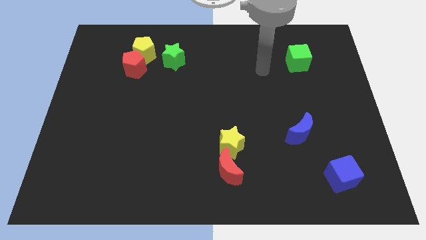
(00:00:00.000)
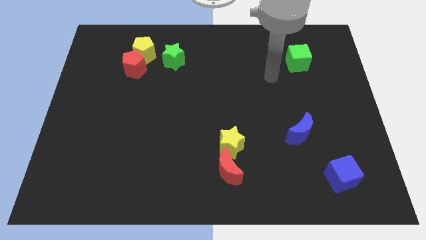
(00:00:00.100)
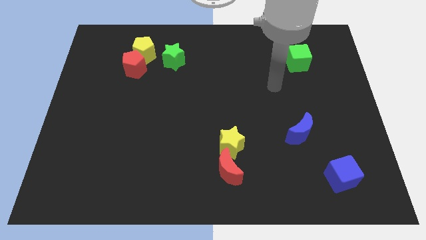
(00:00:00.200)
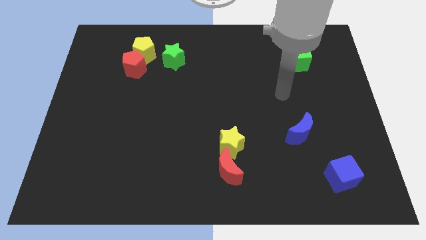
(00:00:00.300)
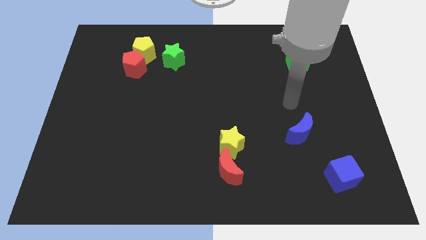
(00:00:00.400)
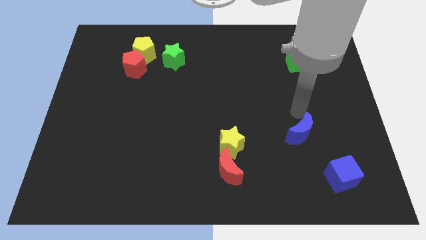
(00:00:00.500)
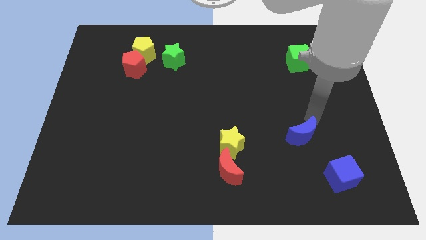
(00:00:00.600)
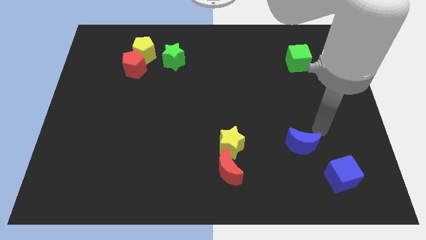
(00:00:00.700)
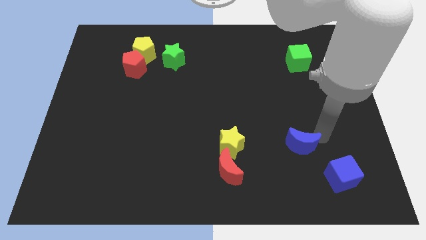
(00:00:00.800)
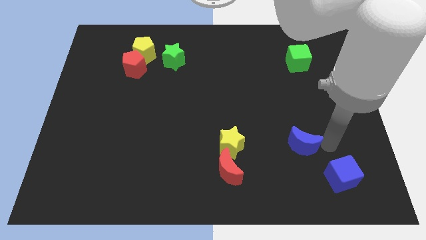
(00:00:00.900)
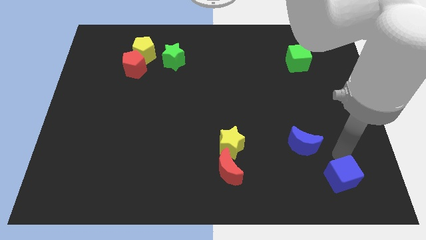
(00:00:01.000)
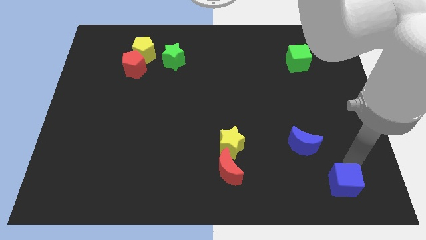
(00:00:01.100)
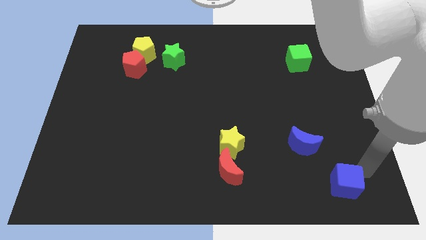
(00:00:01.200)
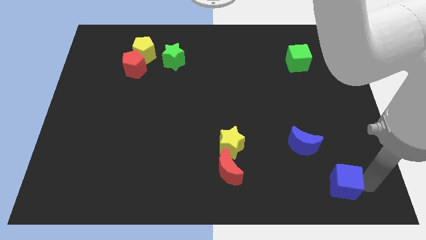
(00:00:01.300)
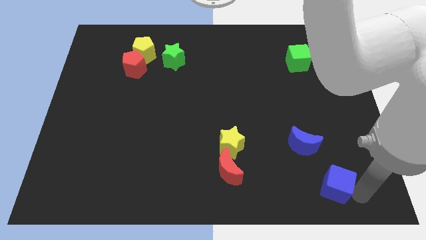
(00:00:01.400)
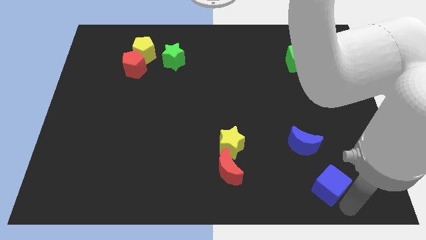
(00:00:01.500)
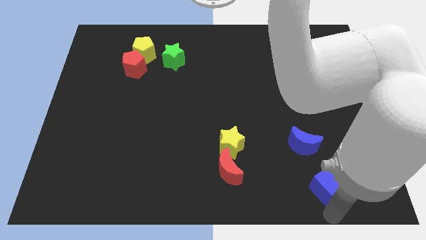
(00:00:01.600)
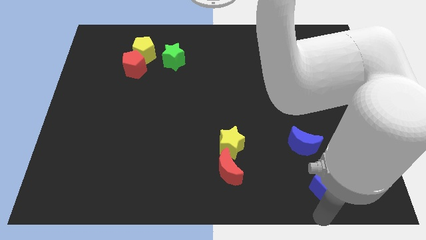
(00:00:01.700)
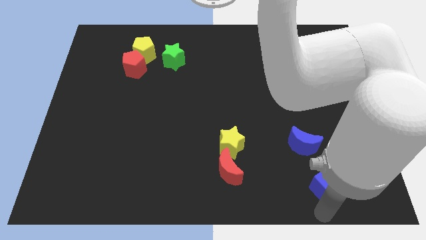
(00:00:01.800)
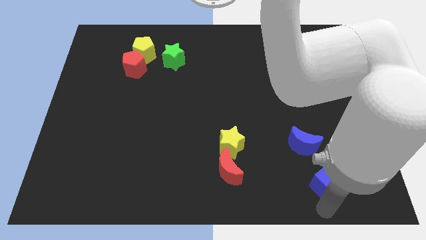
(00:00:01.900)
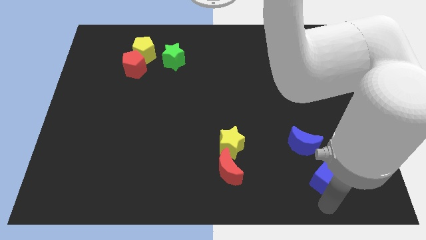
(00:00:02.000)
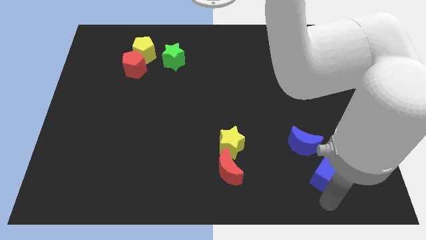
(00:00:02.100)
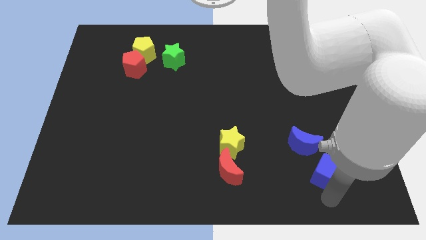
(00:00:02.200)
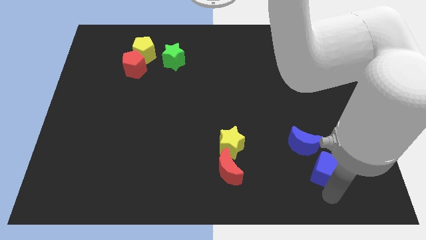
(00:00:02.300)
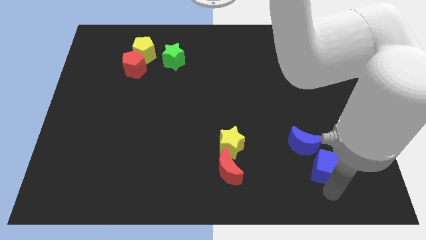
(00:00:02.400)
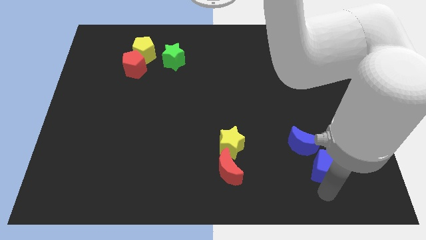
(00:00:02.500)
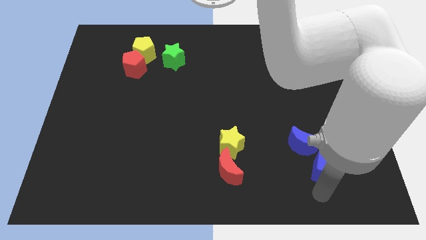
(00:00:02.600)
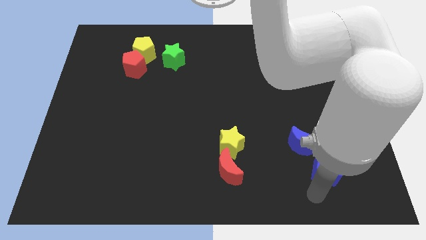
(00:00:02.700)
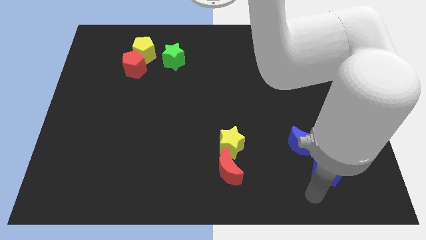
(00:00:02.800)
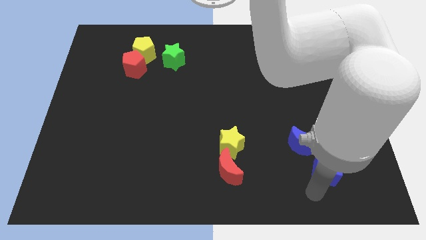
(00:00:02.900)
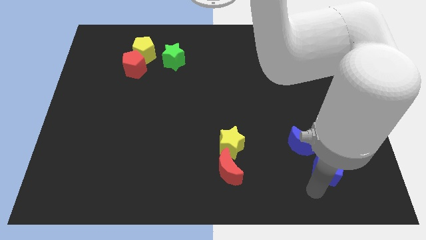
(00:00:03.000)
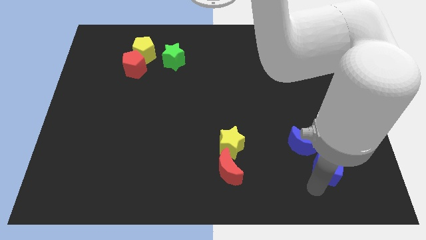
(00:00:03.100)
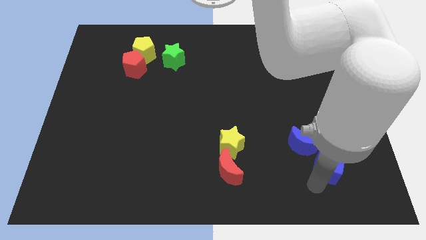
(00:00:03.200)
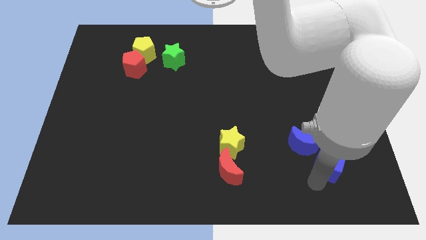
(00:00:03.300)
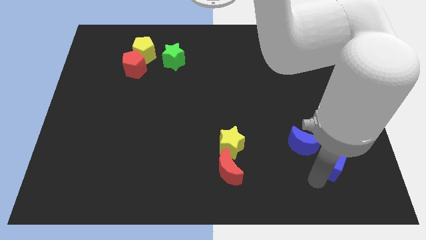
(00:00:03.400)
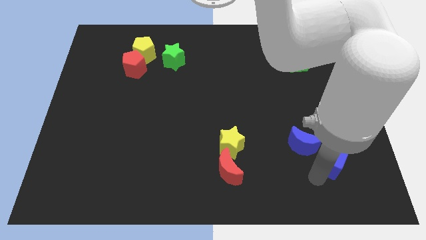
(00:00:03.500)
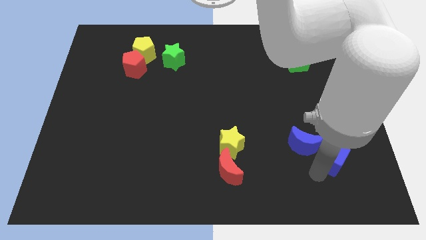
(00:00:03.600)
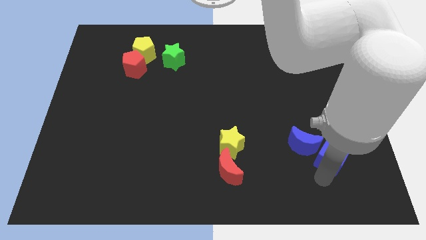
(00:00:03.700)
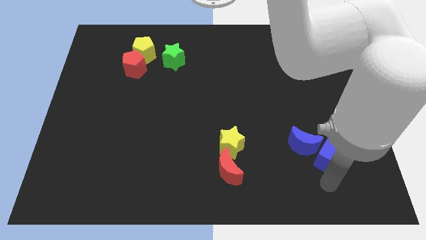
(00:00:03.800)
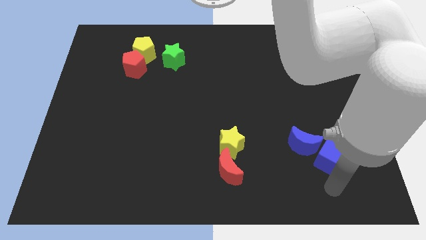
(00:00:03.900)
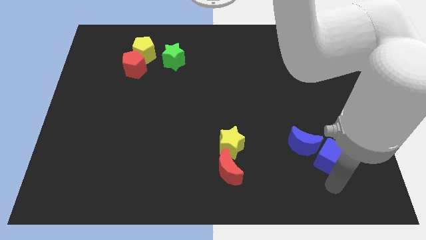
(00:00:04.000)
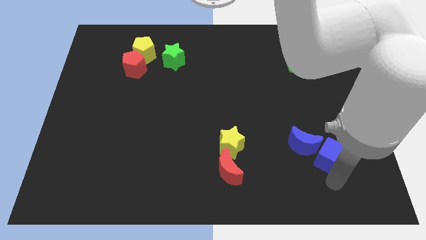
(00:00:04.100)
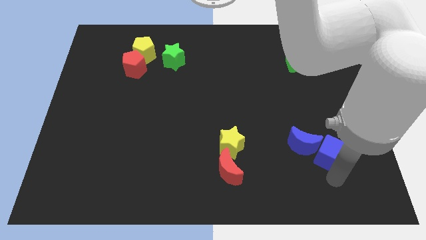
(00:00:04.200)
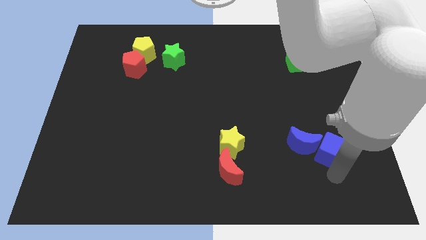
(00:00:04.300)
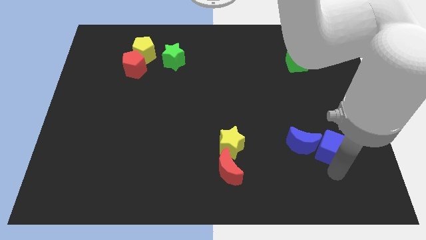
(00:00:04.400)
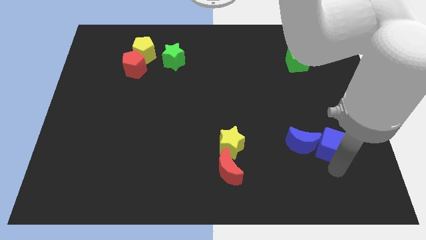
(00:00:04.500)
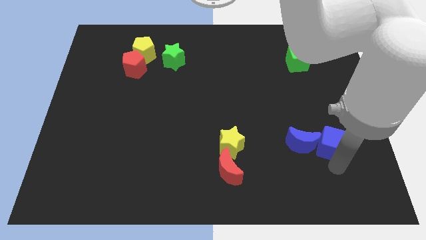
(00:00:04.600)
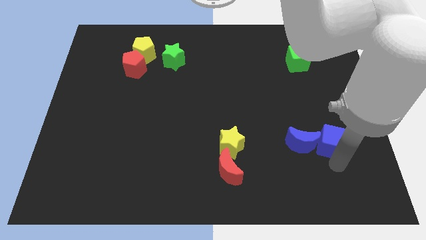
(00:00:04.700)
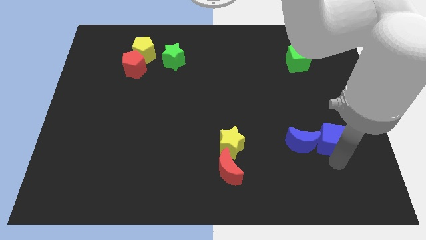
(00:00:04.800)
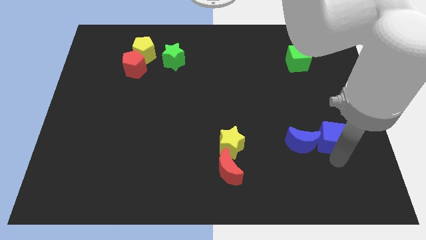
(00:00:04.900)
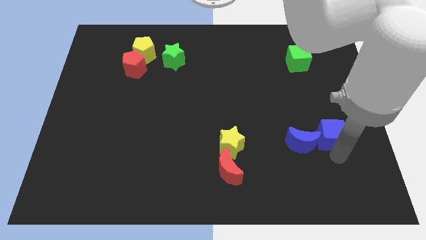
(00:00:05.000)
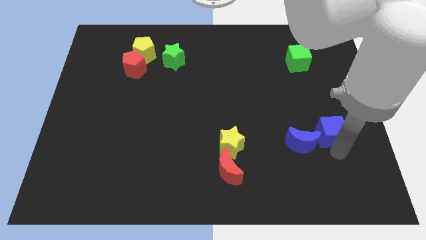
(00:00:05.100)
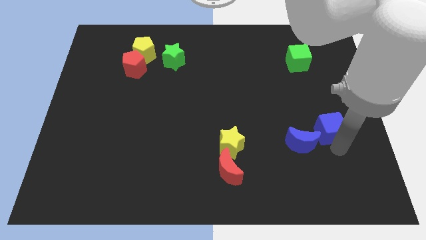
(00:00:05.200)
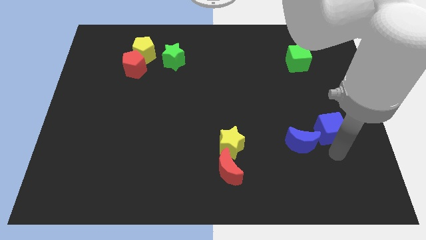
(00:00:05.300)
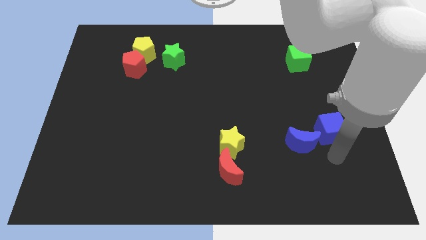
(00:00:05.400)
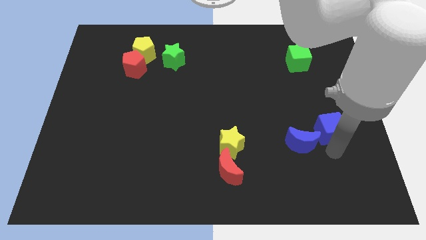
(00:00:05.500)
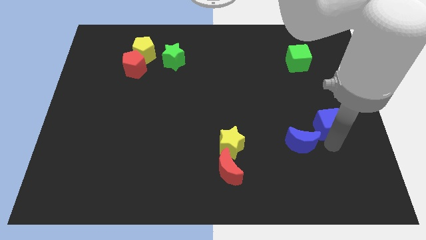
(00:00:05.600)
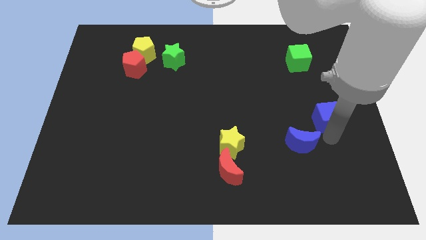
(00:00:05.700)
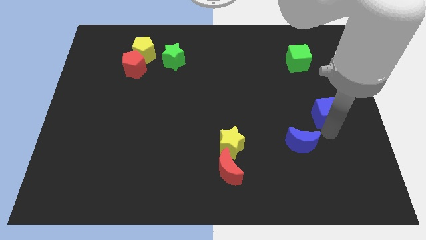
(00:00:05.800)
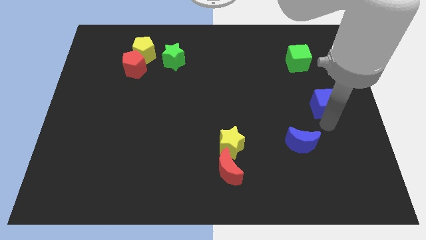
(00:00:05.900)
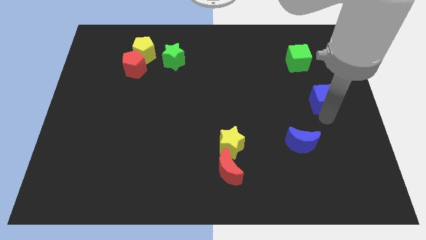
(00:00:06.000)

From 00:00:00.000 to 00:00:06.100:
move the blue cube up

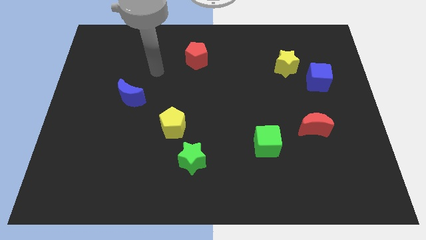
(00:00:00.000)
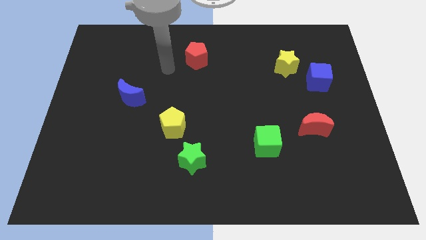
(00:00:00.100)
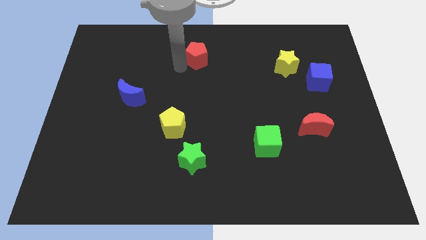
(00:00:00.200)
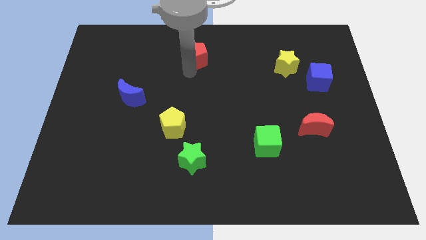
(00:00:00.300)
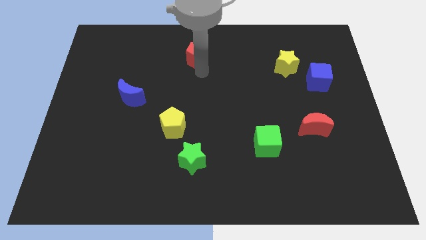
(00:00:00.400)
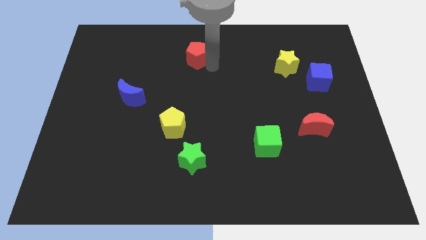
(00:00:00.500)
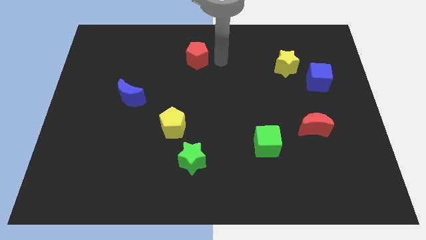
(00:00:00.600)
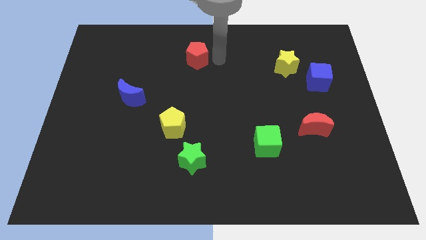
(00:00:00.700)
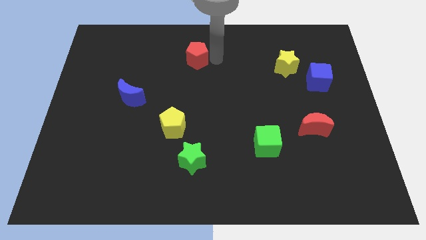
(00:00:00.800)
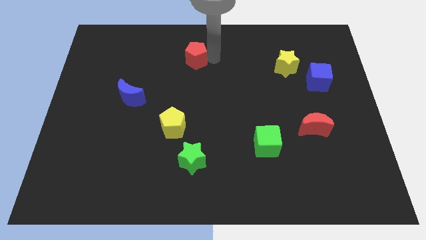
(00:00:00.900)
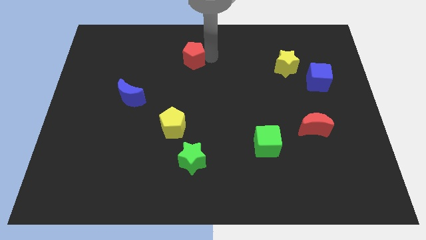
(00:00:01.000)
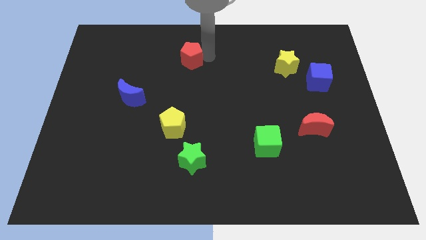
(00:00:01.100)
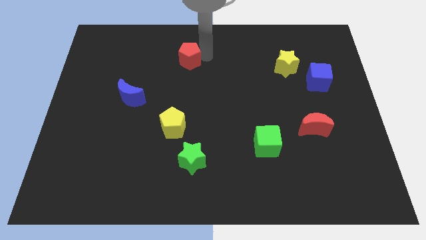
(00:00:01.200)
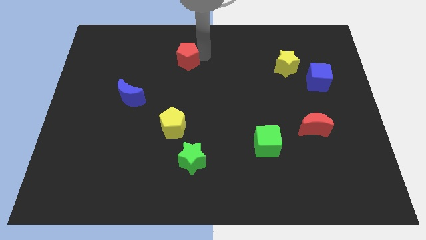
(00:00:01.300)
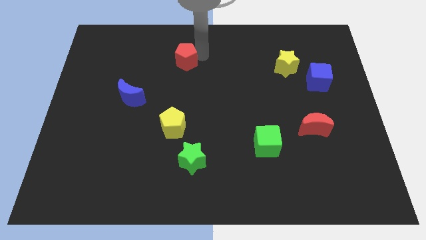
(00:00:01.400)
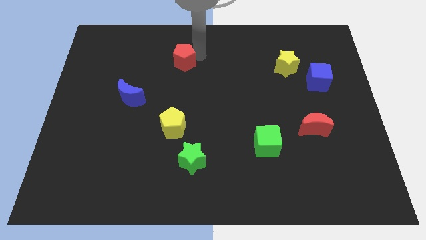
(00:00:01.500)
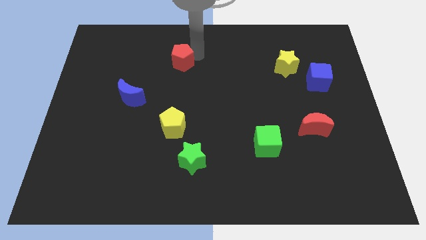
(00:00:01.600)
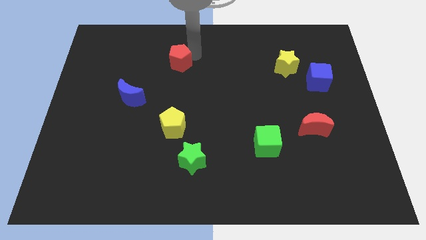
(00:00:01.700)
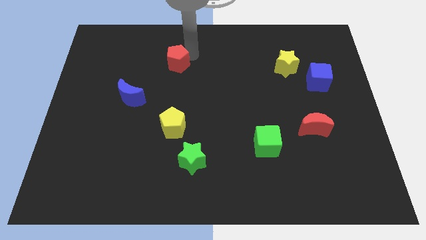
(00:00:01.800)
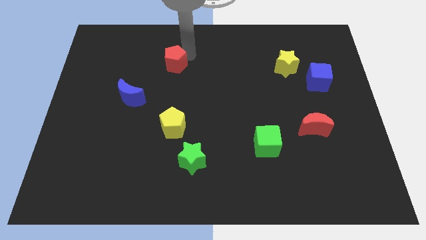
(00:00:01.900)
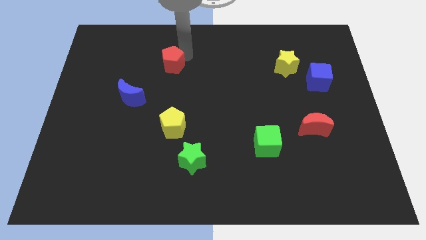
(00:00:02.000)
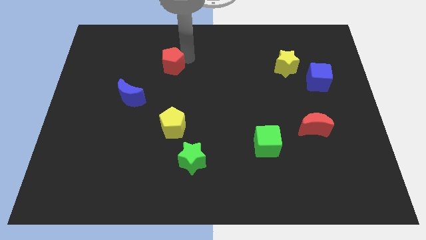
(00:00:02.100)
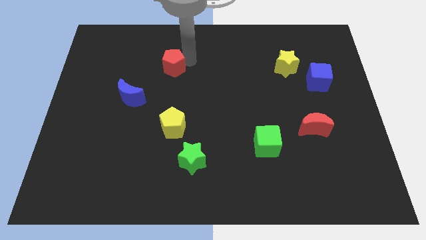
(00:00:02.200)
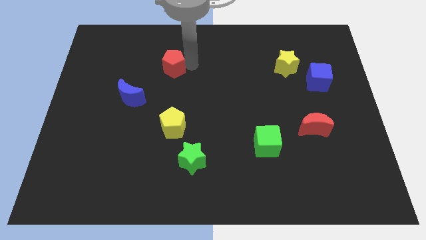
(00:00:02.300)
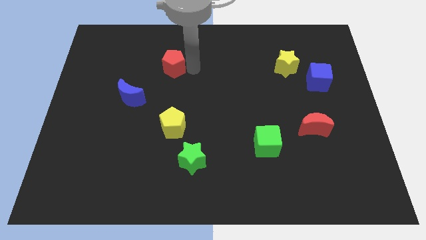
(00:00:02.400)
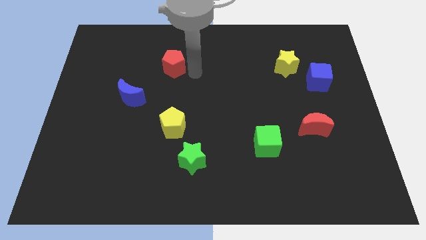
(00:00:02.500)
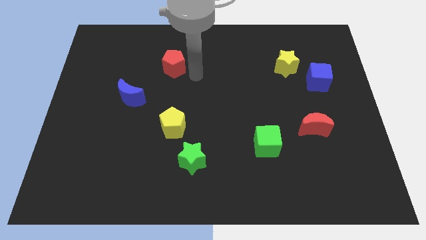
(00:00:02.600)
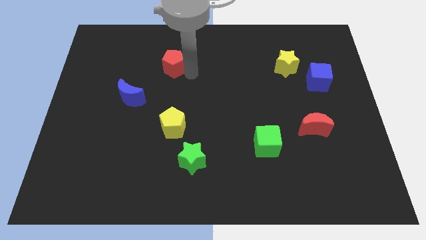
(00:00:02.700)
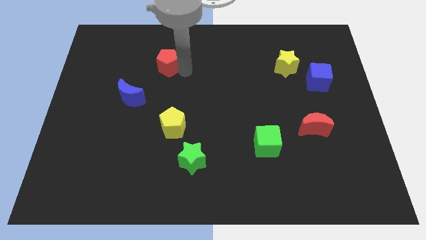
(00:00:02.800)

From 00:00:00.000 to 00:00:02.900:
push the red pentagon a little bit left
